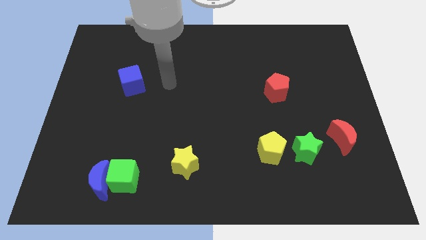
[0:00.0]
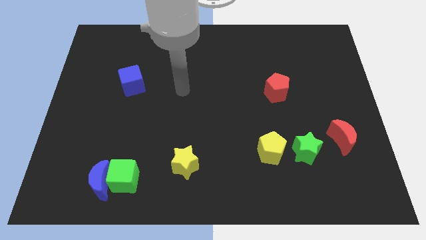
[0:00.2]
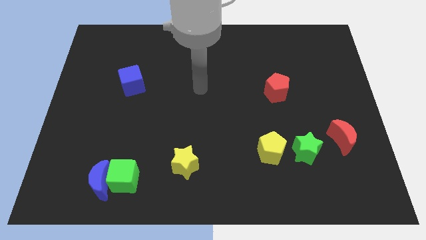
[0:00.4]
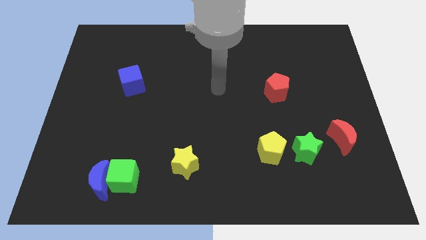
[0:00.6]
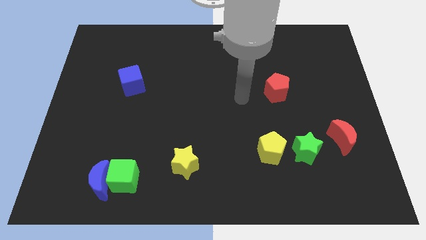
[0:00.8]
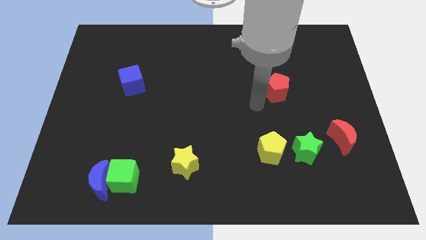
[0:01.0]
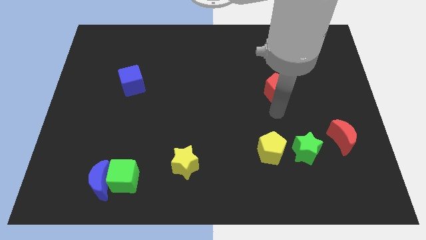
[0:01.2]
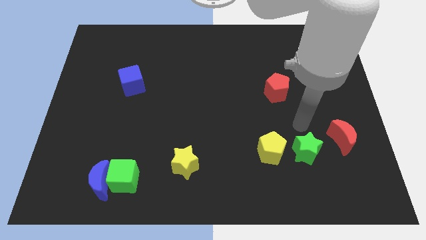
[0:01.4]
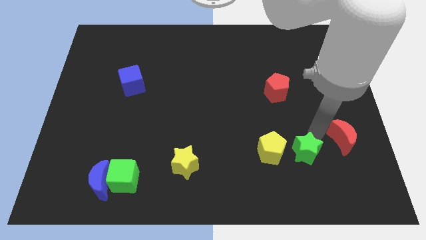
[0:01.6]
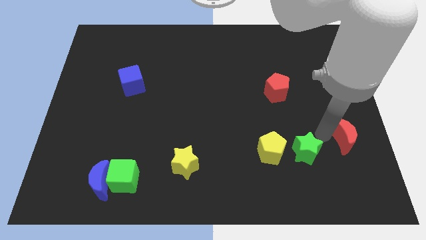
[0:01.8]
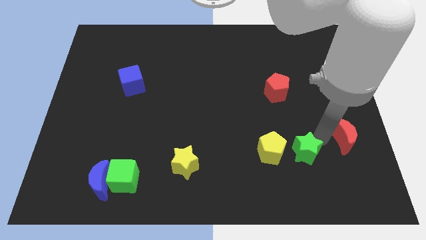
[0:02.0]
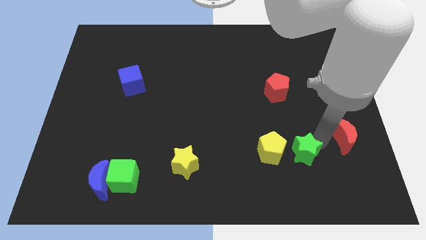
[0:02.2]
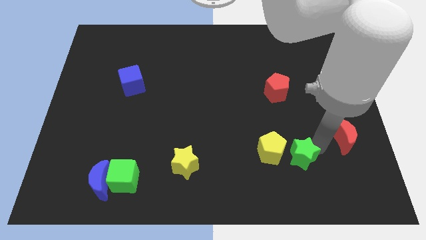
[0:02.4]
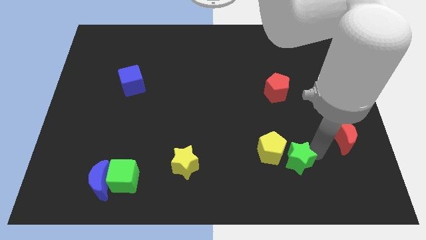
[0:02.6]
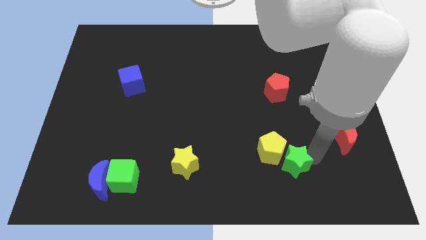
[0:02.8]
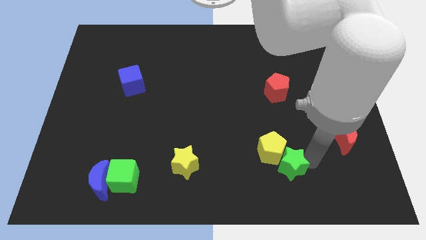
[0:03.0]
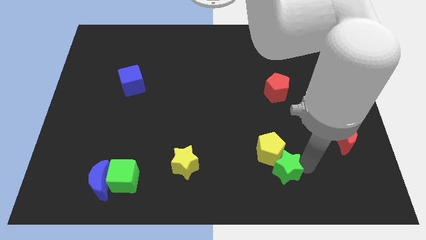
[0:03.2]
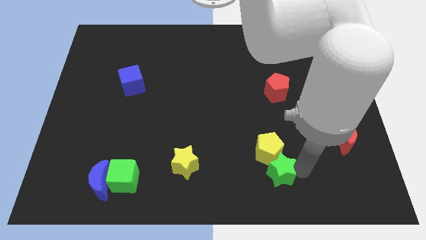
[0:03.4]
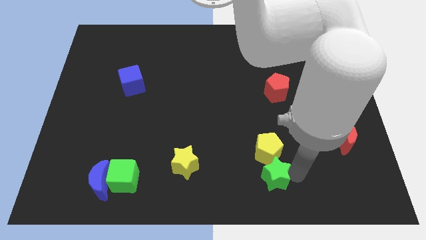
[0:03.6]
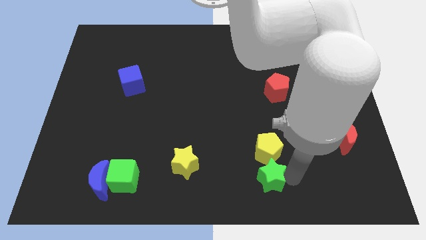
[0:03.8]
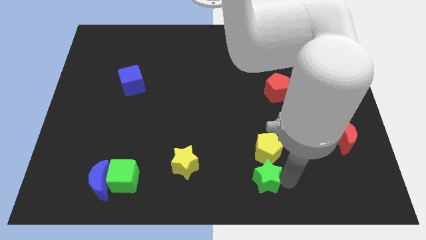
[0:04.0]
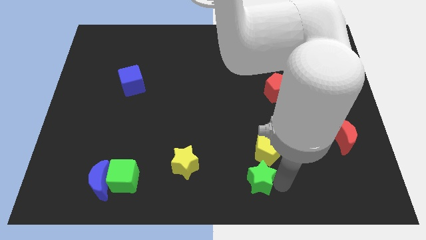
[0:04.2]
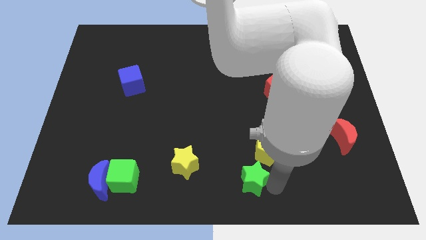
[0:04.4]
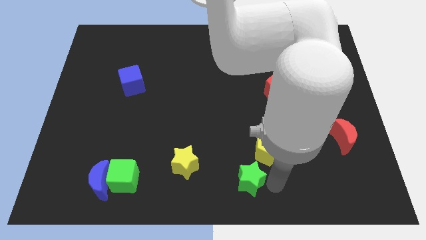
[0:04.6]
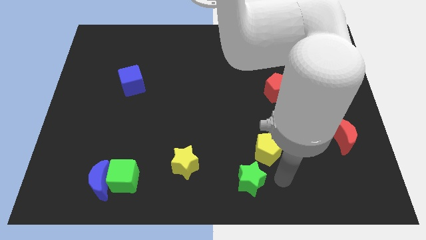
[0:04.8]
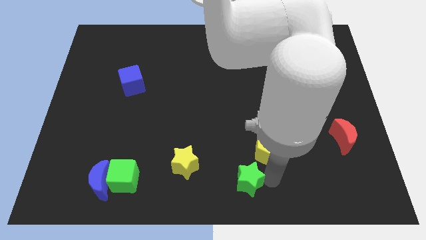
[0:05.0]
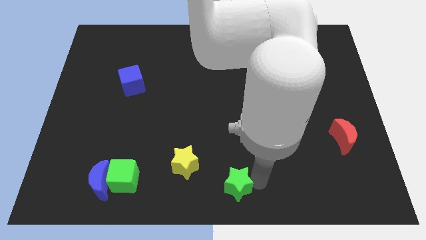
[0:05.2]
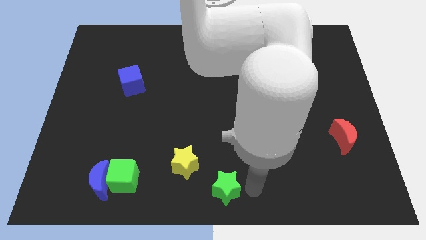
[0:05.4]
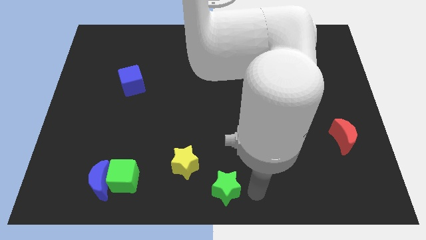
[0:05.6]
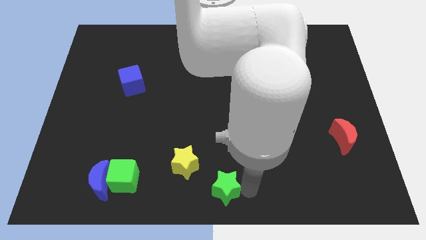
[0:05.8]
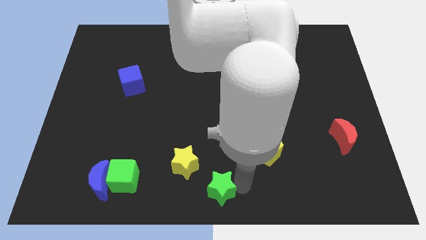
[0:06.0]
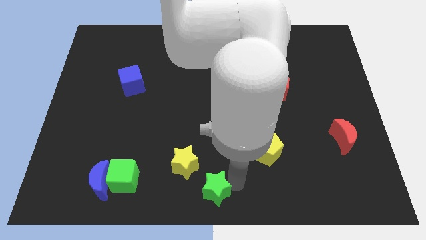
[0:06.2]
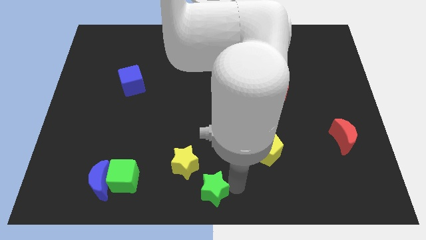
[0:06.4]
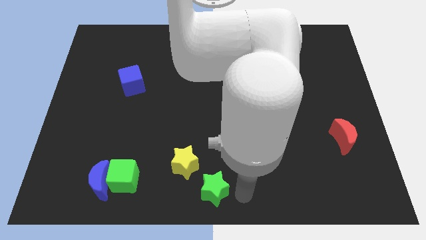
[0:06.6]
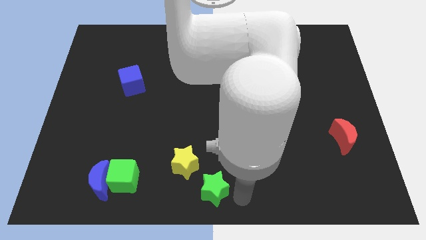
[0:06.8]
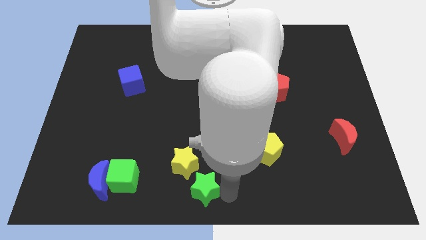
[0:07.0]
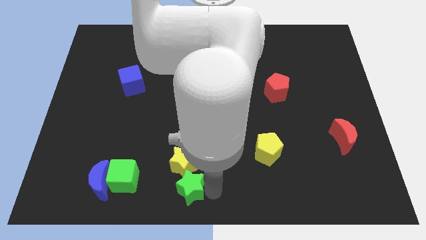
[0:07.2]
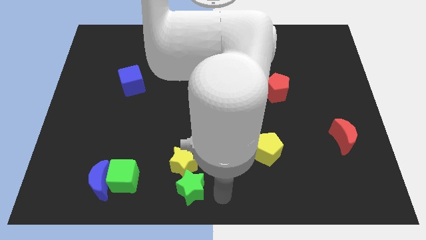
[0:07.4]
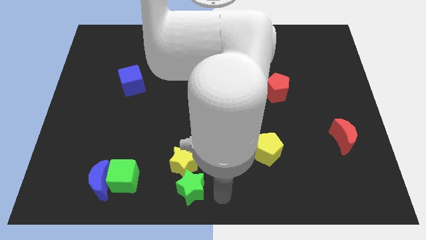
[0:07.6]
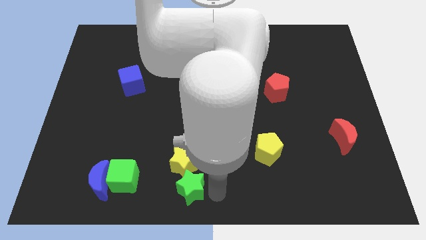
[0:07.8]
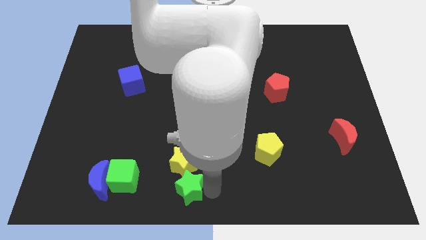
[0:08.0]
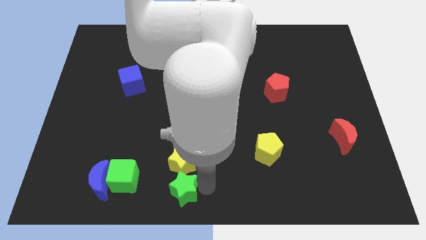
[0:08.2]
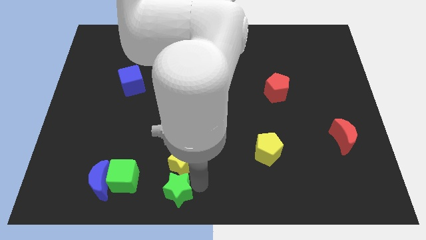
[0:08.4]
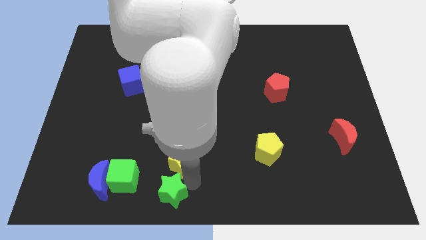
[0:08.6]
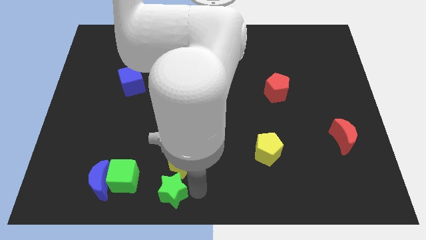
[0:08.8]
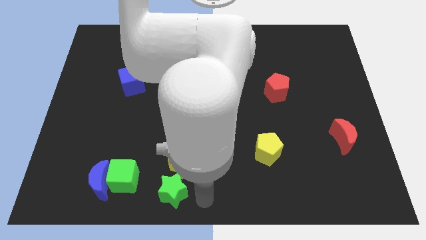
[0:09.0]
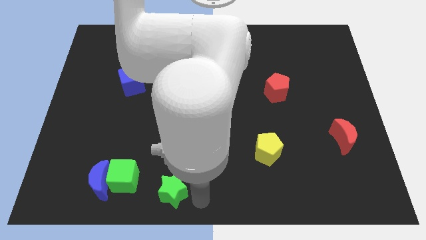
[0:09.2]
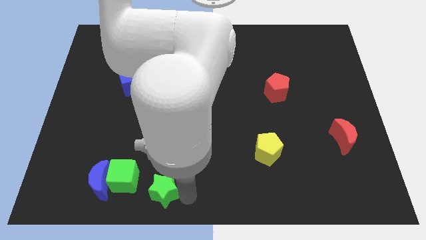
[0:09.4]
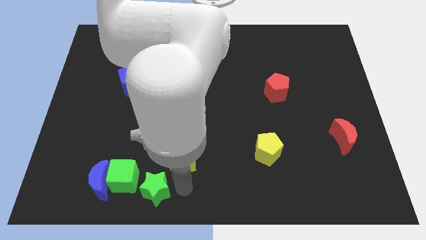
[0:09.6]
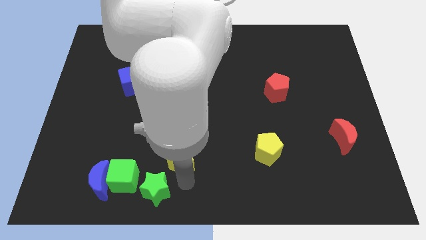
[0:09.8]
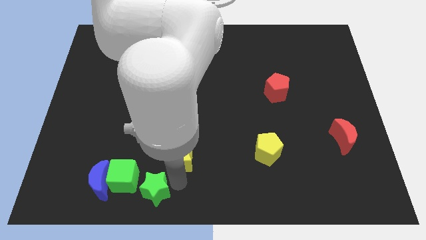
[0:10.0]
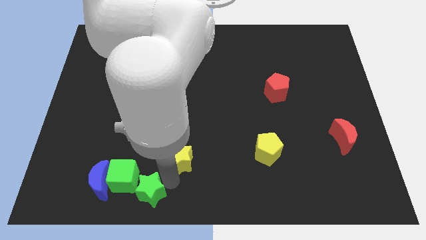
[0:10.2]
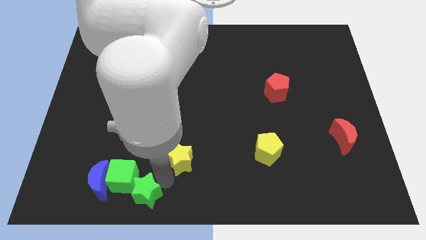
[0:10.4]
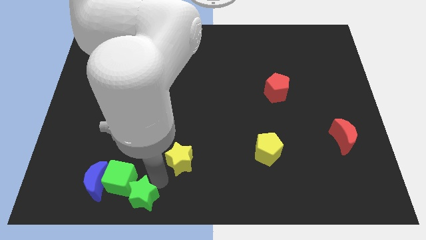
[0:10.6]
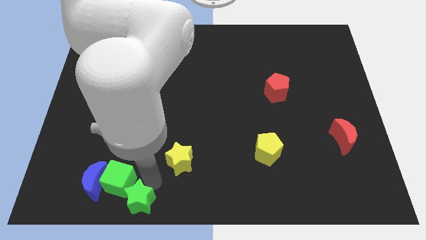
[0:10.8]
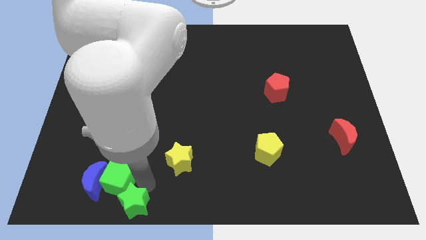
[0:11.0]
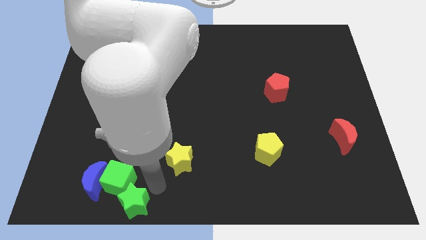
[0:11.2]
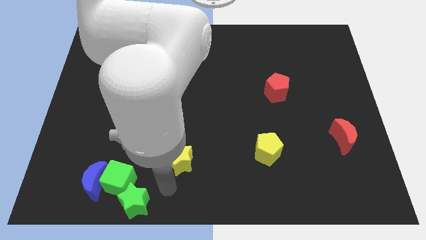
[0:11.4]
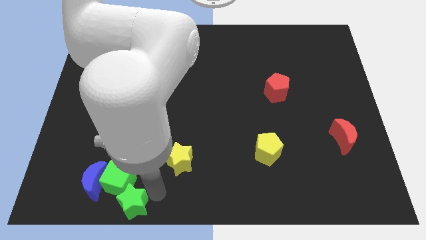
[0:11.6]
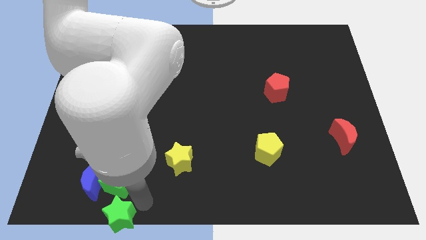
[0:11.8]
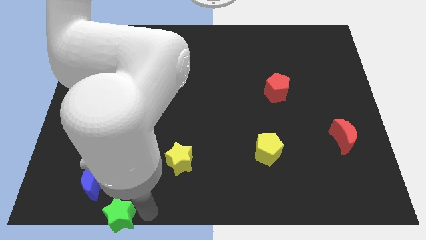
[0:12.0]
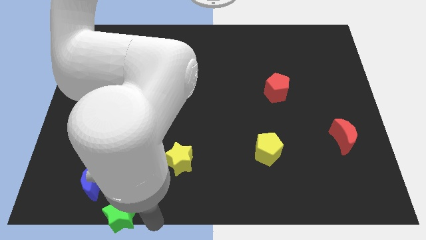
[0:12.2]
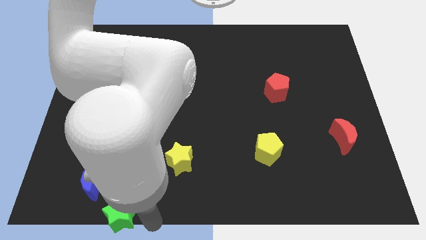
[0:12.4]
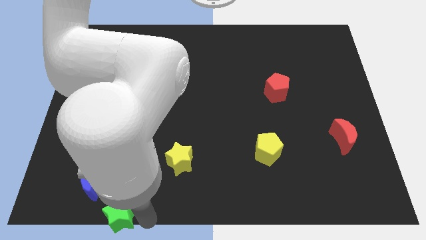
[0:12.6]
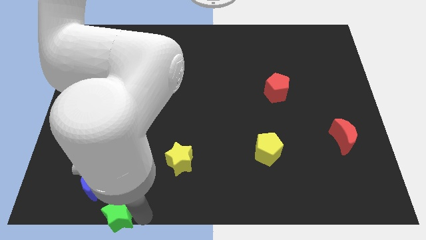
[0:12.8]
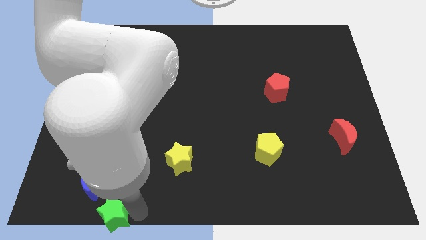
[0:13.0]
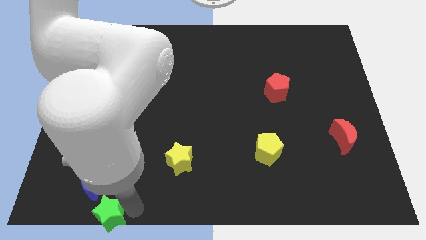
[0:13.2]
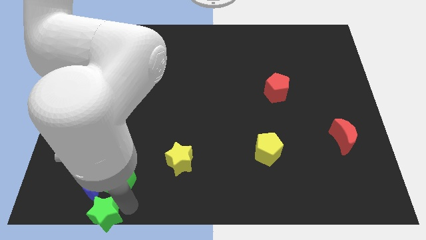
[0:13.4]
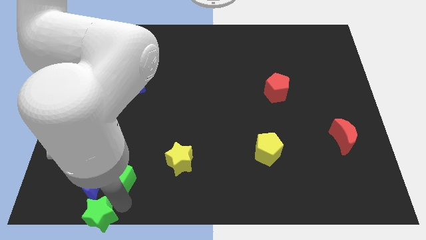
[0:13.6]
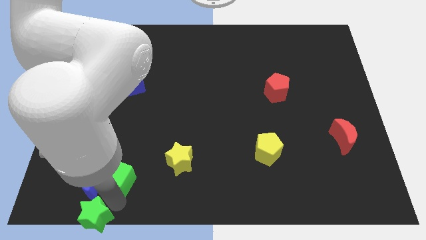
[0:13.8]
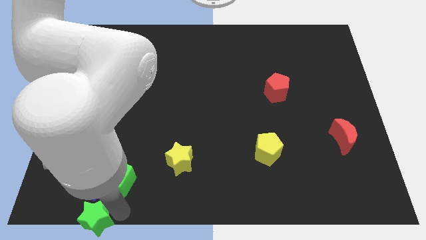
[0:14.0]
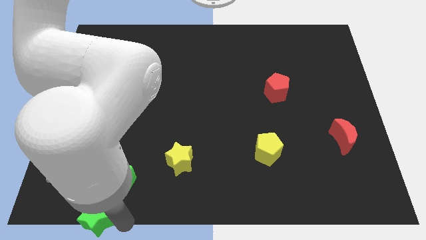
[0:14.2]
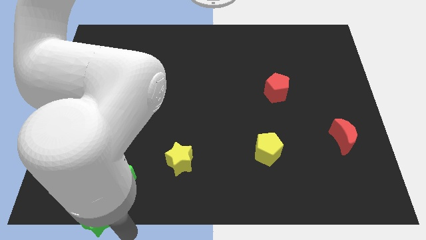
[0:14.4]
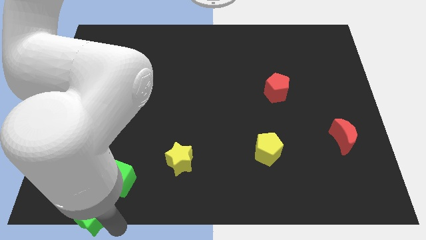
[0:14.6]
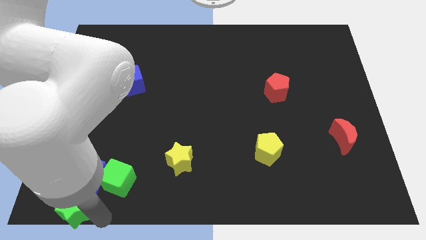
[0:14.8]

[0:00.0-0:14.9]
put the green star to the bottom left corner

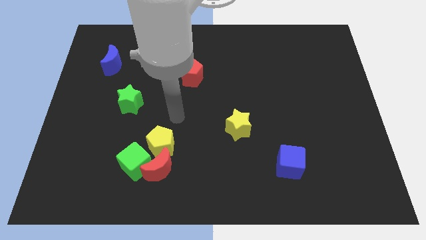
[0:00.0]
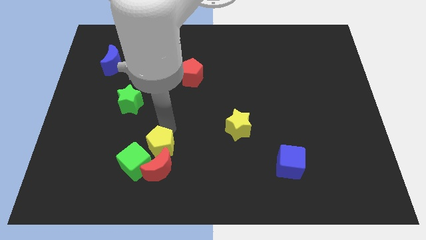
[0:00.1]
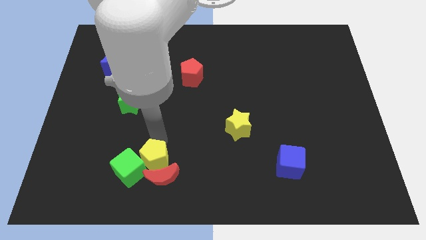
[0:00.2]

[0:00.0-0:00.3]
push the red moon to the bottom side
